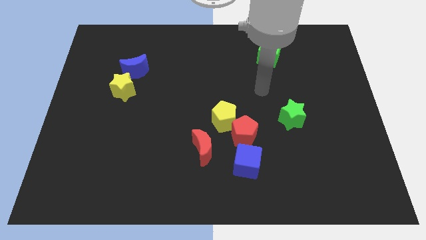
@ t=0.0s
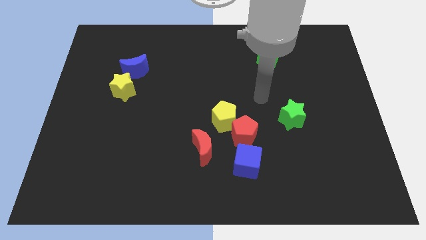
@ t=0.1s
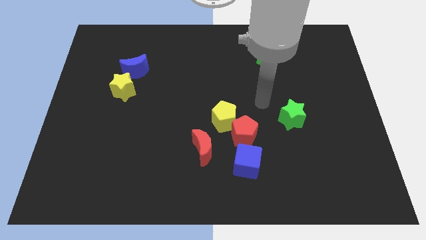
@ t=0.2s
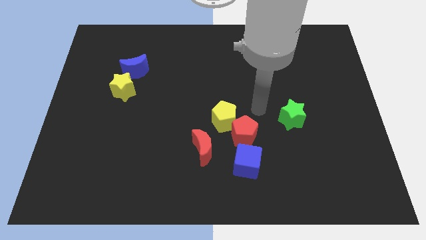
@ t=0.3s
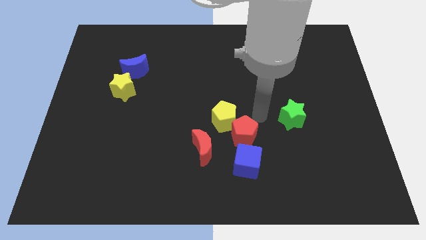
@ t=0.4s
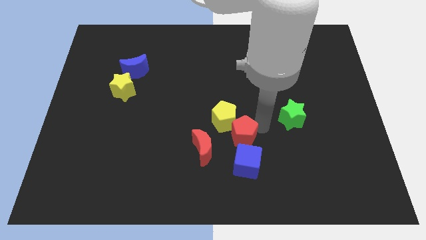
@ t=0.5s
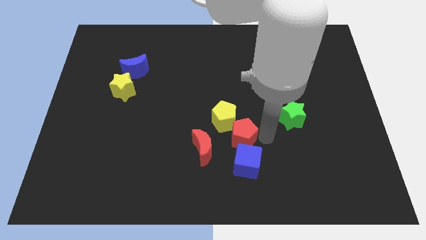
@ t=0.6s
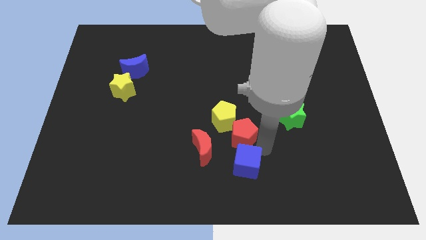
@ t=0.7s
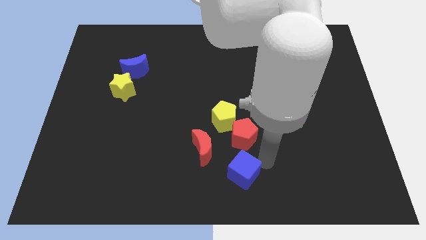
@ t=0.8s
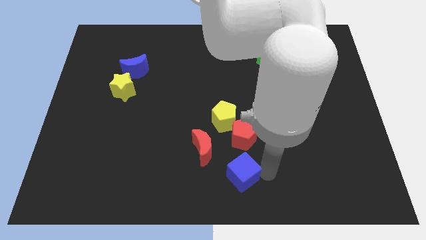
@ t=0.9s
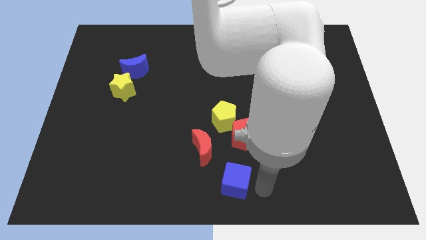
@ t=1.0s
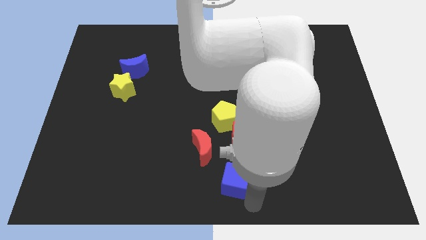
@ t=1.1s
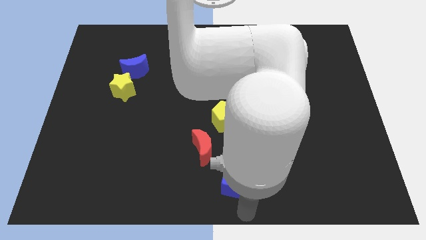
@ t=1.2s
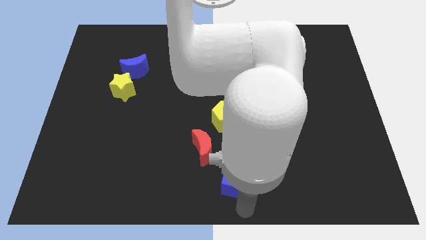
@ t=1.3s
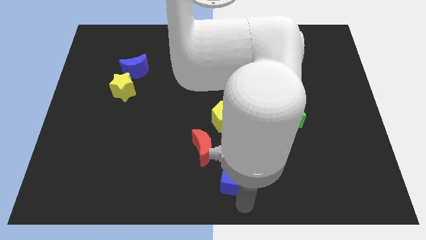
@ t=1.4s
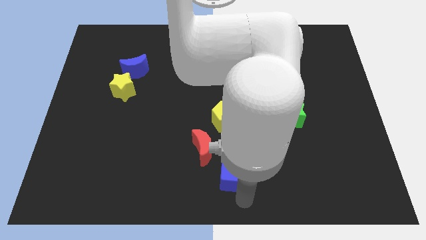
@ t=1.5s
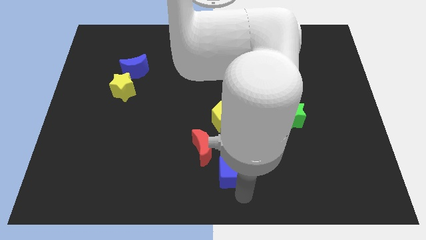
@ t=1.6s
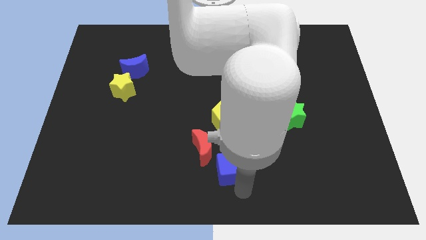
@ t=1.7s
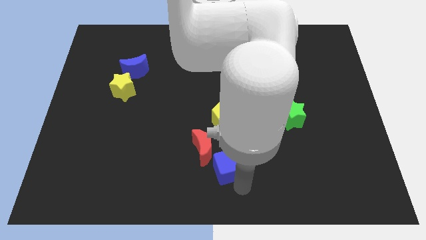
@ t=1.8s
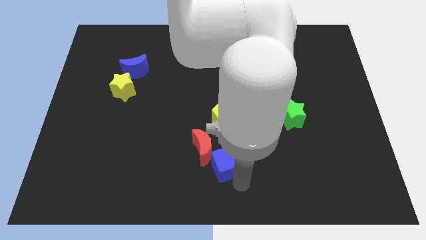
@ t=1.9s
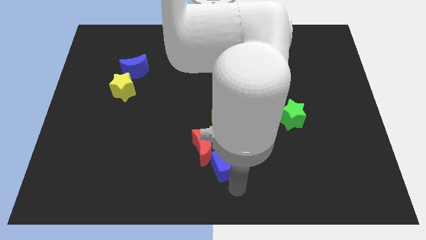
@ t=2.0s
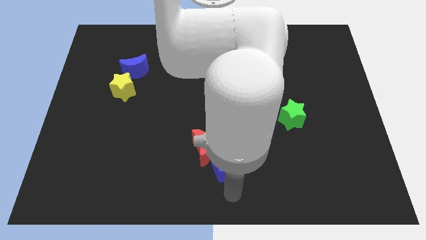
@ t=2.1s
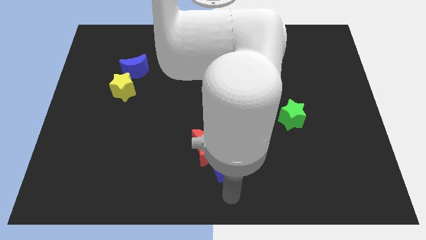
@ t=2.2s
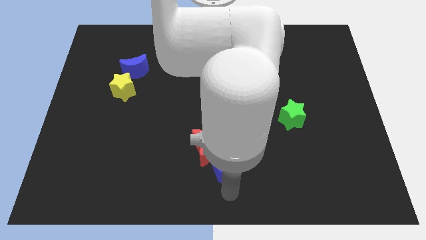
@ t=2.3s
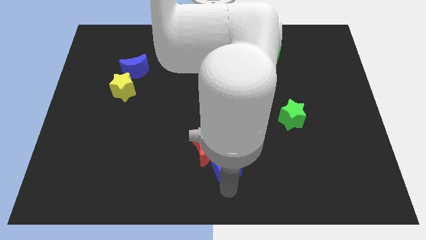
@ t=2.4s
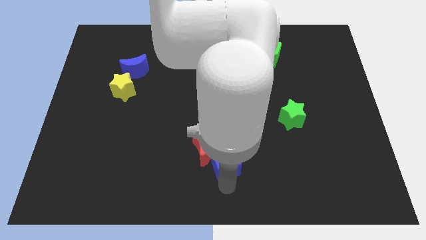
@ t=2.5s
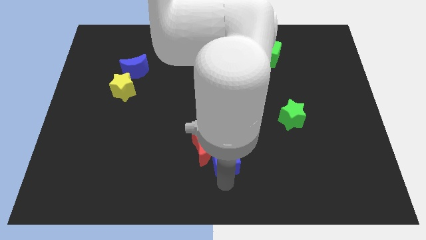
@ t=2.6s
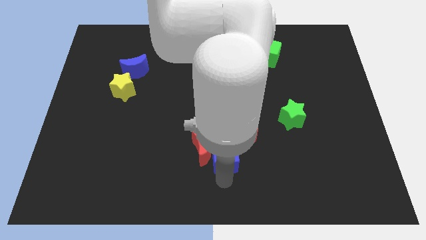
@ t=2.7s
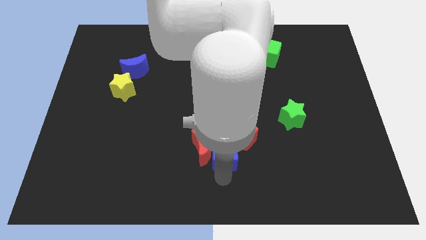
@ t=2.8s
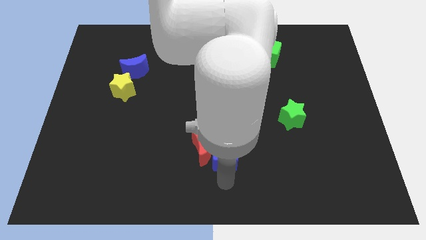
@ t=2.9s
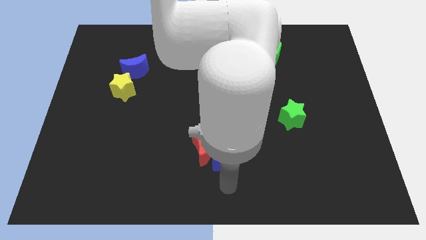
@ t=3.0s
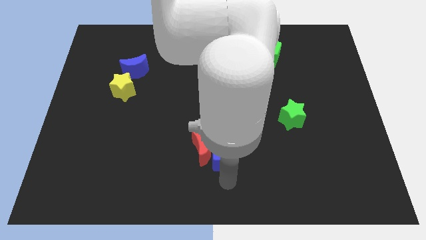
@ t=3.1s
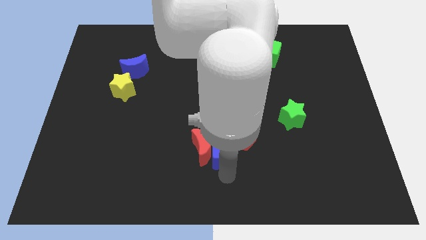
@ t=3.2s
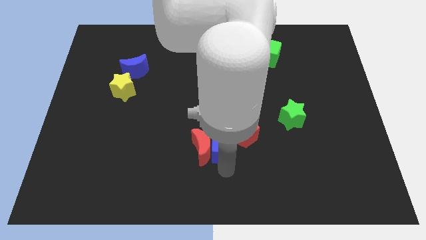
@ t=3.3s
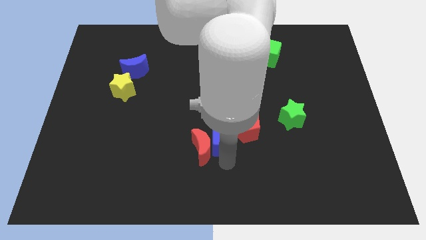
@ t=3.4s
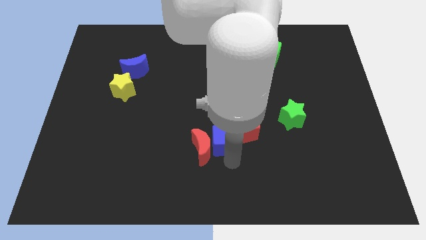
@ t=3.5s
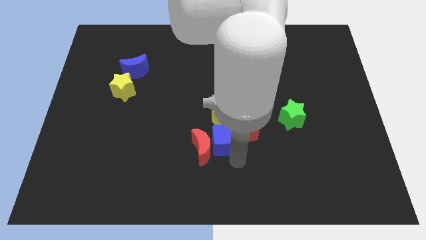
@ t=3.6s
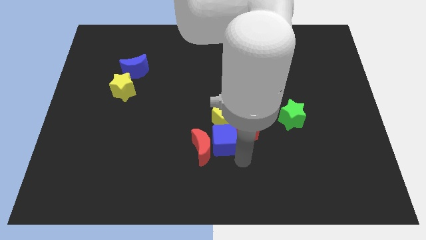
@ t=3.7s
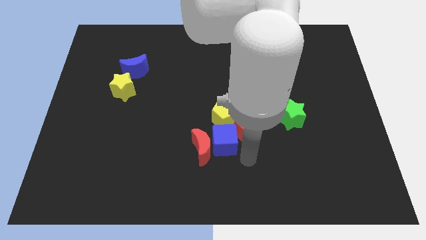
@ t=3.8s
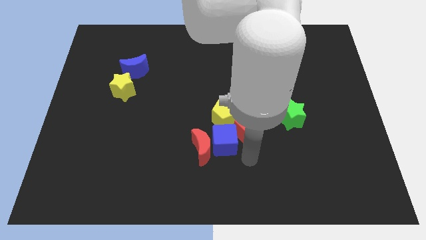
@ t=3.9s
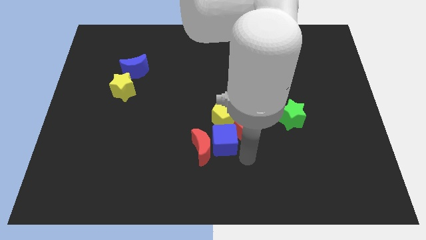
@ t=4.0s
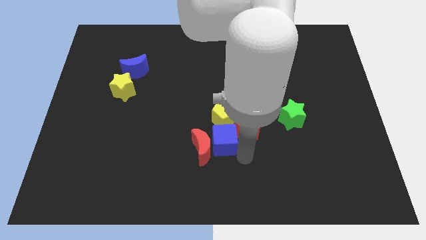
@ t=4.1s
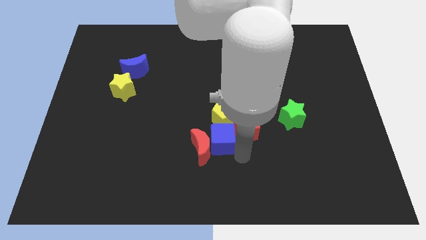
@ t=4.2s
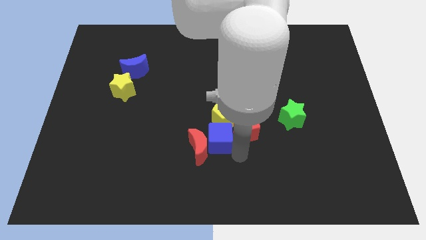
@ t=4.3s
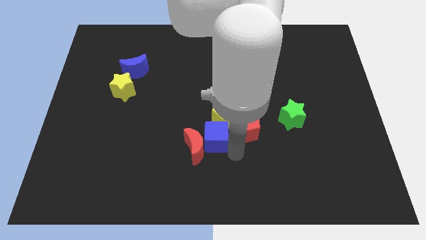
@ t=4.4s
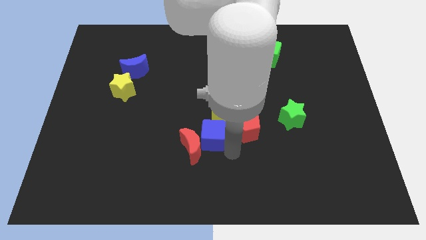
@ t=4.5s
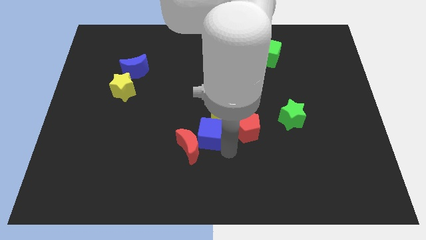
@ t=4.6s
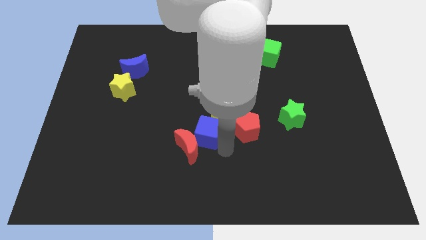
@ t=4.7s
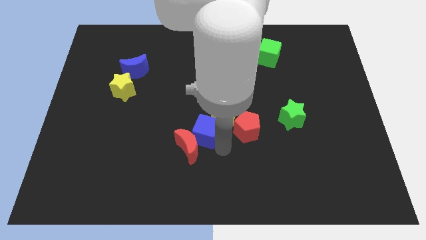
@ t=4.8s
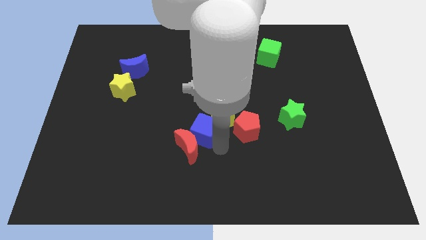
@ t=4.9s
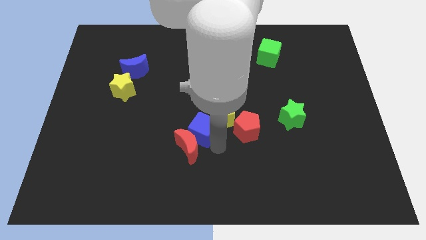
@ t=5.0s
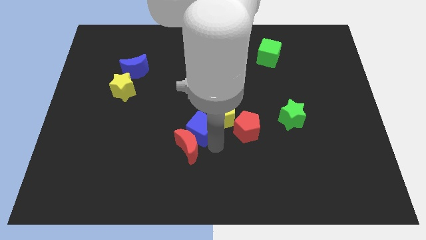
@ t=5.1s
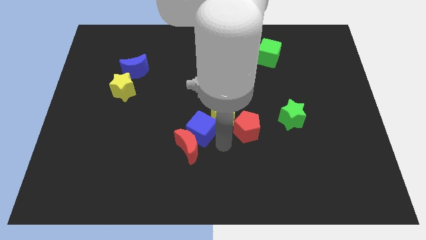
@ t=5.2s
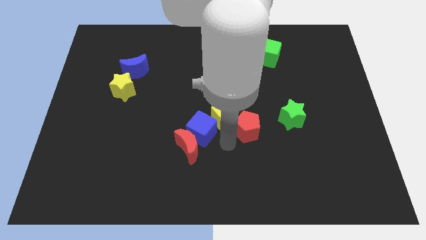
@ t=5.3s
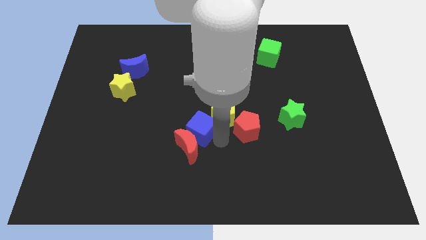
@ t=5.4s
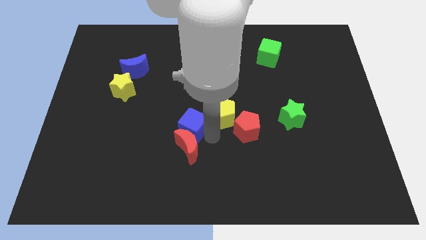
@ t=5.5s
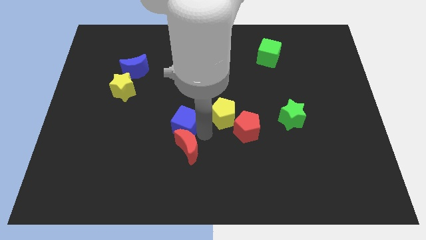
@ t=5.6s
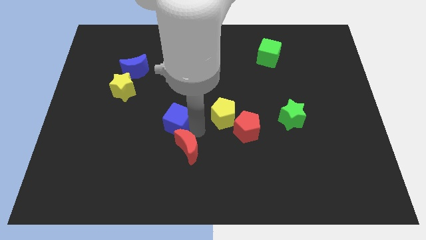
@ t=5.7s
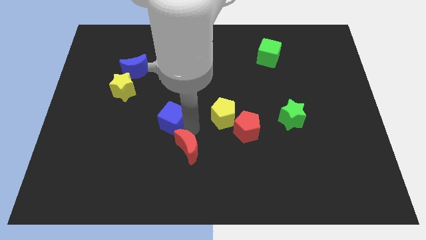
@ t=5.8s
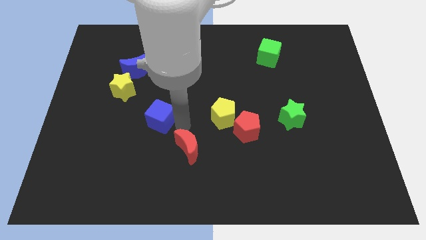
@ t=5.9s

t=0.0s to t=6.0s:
slide the blue cube to the bottom right side of the yellow star
